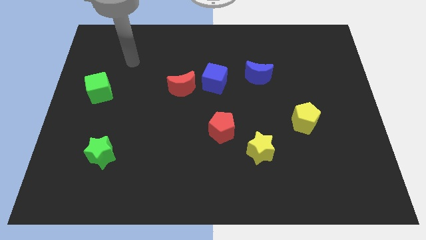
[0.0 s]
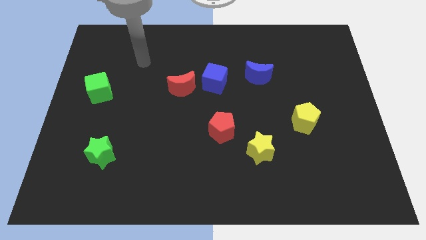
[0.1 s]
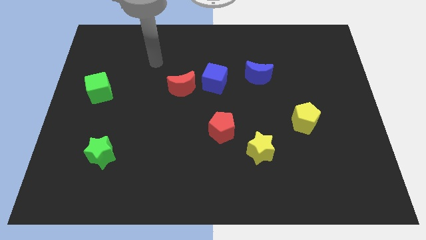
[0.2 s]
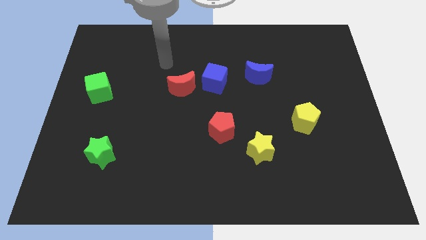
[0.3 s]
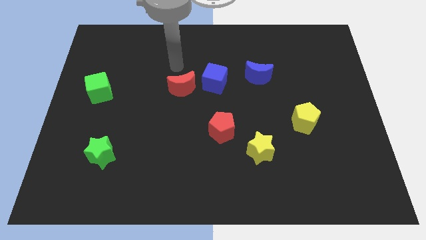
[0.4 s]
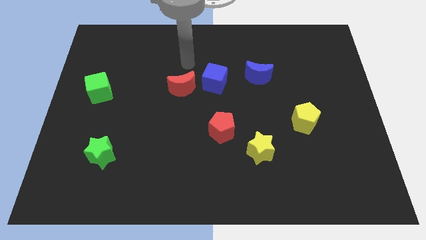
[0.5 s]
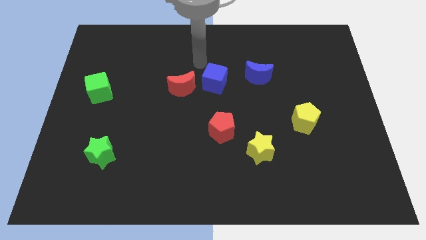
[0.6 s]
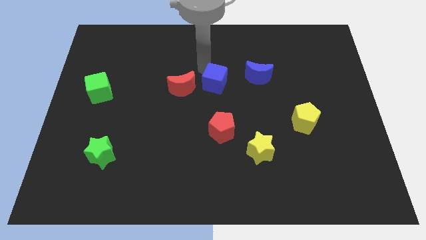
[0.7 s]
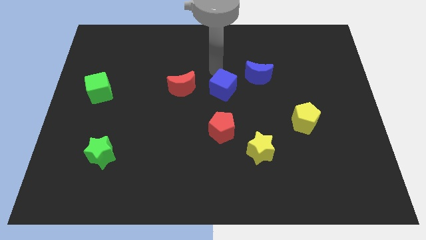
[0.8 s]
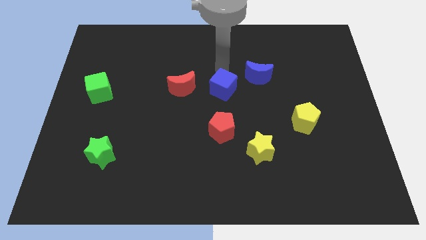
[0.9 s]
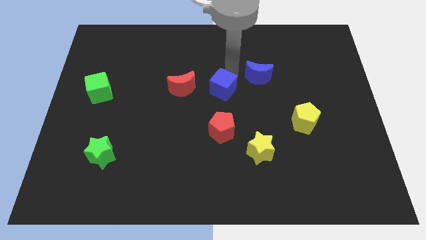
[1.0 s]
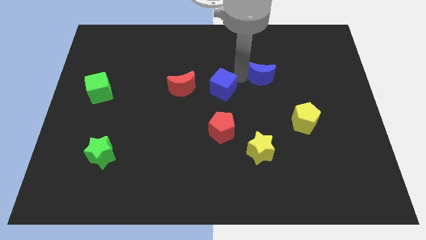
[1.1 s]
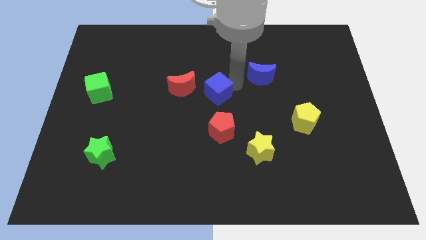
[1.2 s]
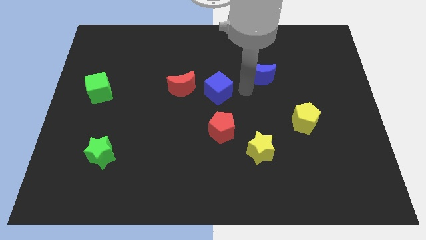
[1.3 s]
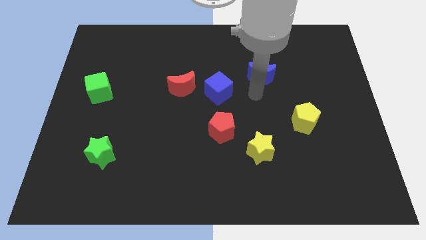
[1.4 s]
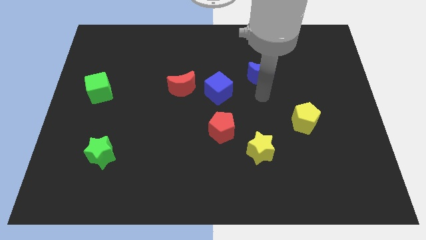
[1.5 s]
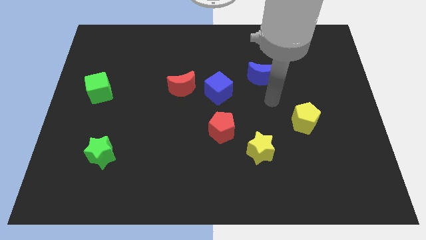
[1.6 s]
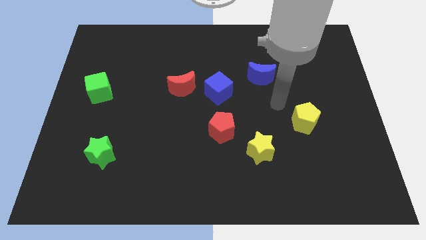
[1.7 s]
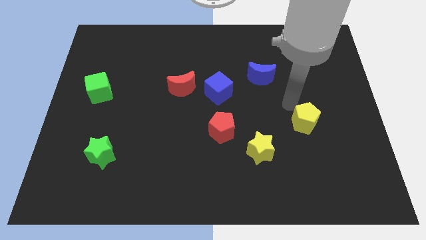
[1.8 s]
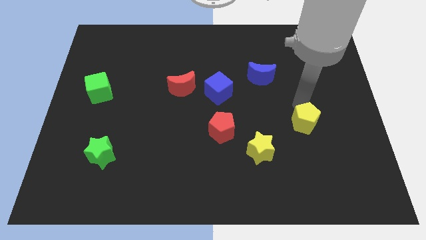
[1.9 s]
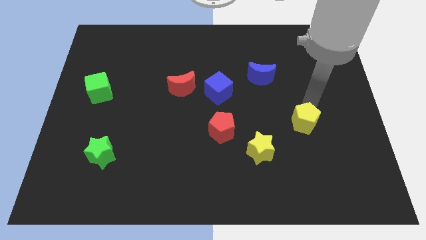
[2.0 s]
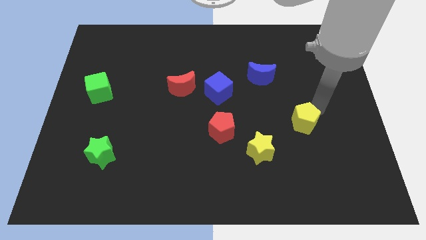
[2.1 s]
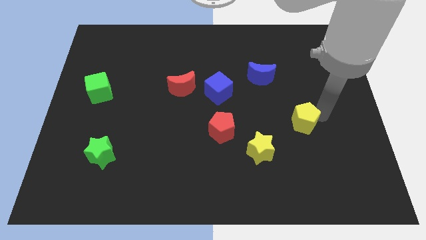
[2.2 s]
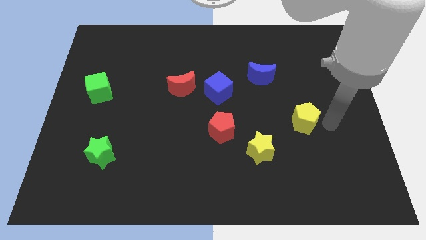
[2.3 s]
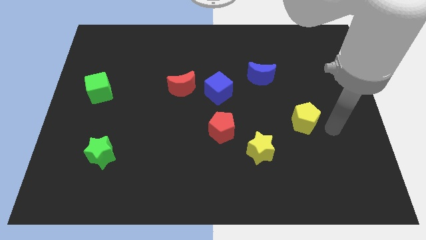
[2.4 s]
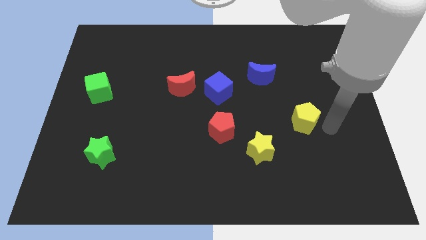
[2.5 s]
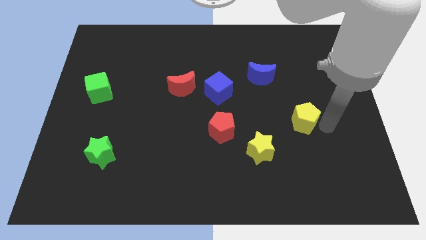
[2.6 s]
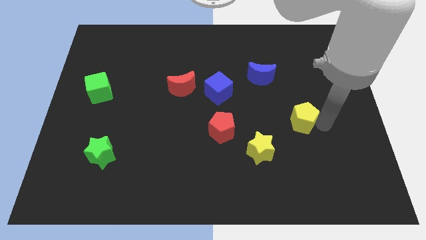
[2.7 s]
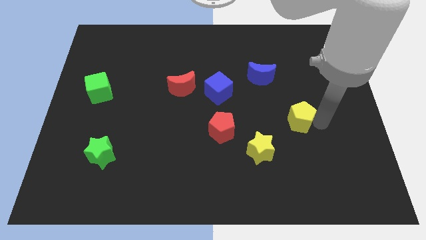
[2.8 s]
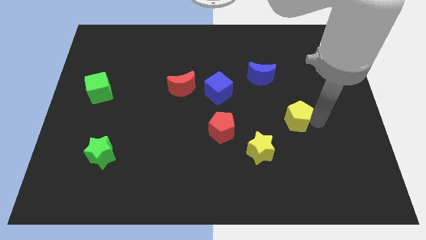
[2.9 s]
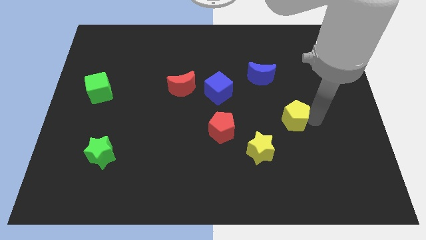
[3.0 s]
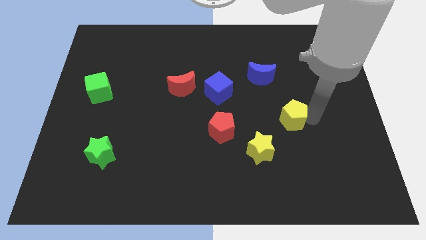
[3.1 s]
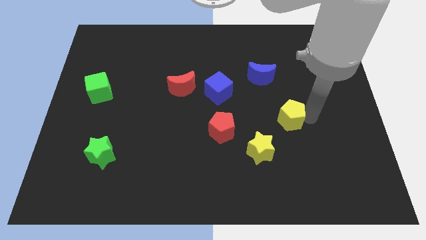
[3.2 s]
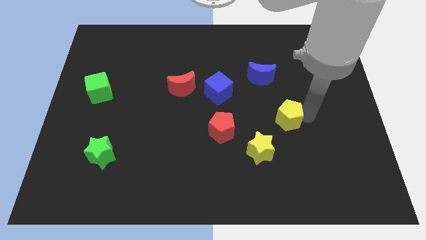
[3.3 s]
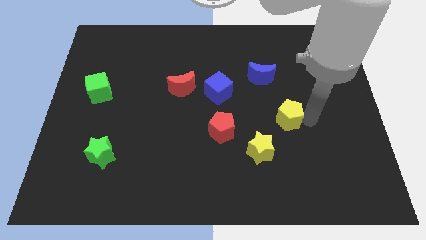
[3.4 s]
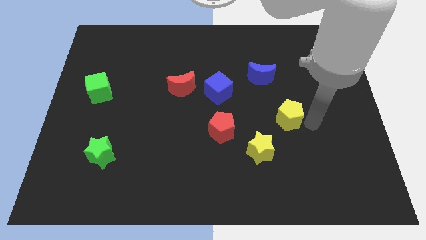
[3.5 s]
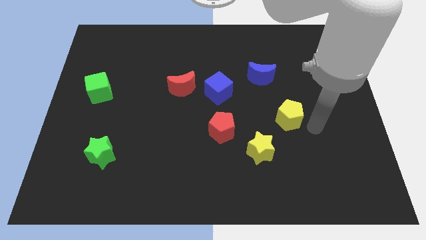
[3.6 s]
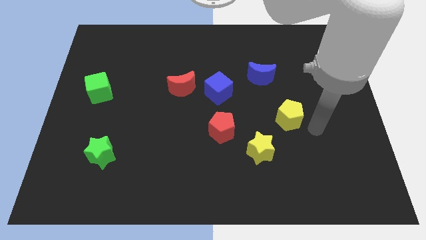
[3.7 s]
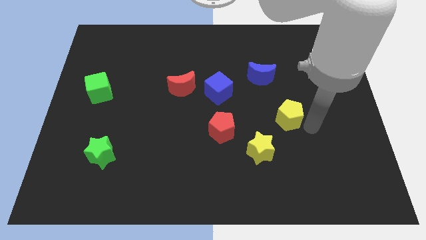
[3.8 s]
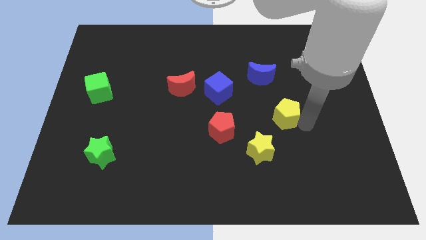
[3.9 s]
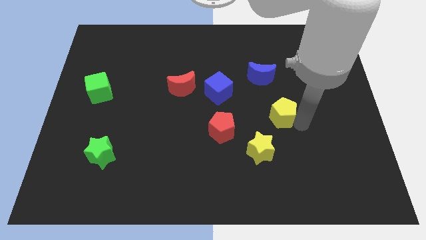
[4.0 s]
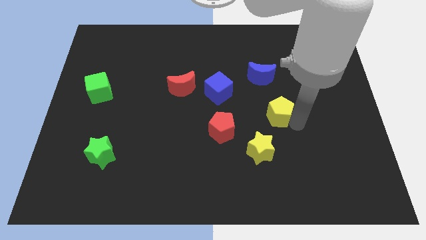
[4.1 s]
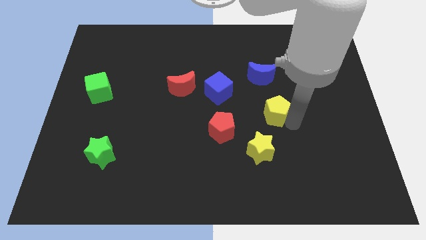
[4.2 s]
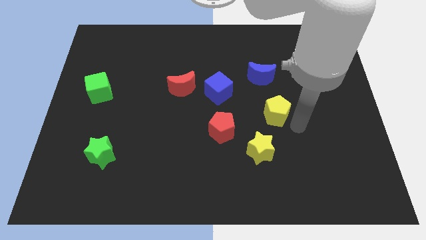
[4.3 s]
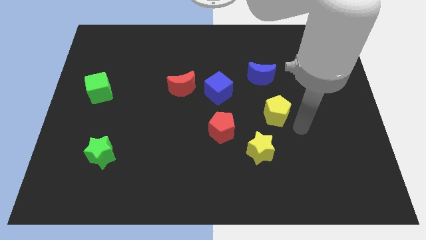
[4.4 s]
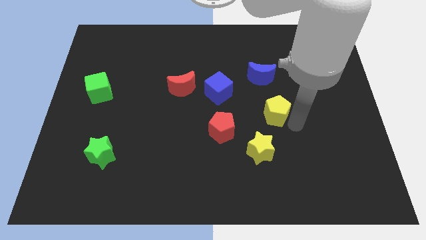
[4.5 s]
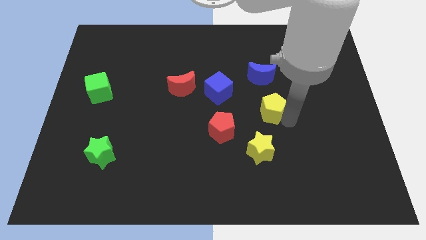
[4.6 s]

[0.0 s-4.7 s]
slightly move the yellow pentagon up and left

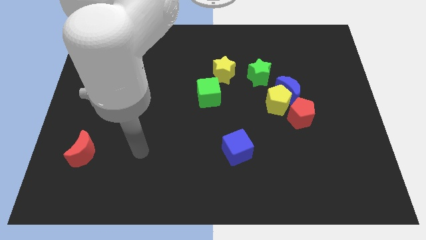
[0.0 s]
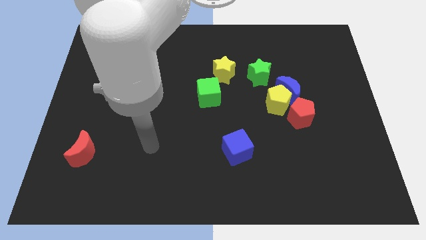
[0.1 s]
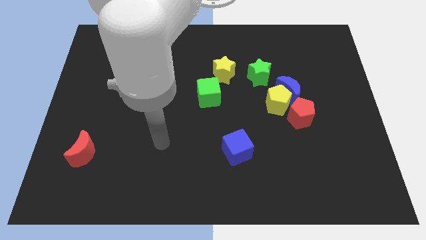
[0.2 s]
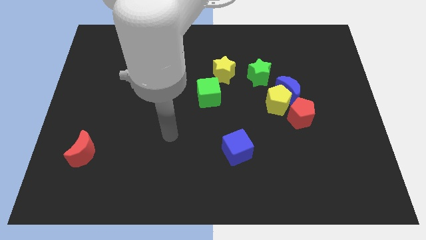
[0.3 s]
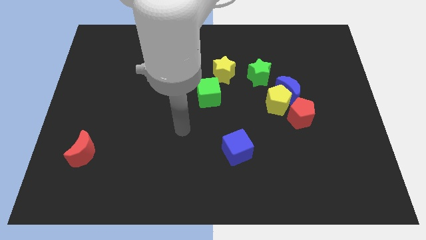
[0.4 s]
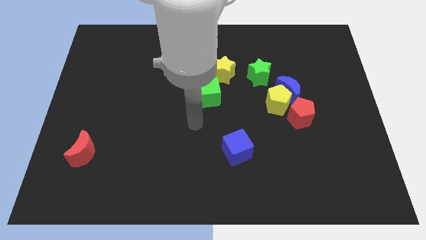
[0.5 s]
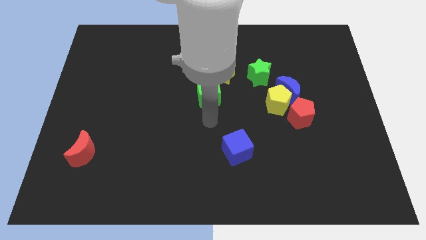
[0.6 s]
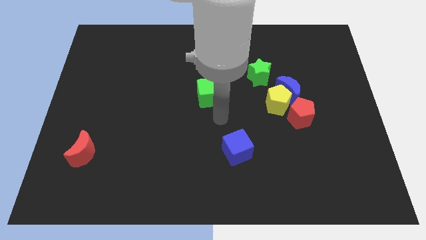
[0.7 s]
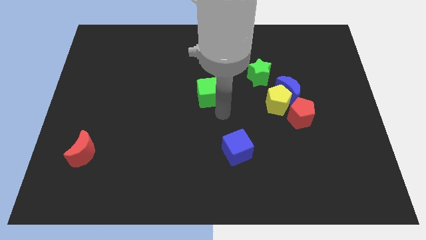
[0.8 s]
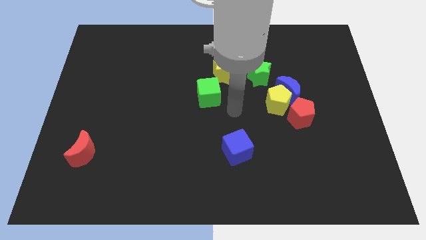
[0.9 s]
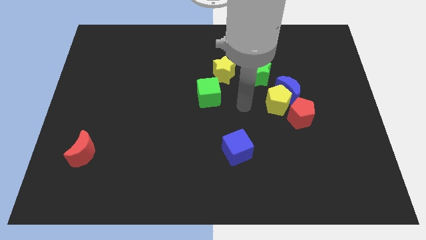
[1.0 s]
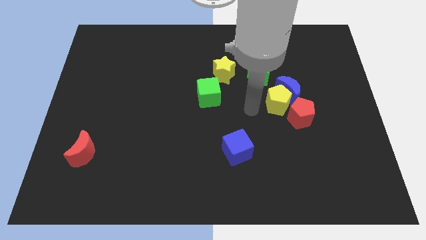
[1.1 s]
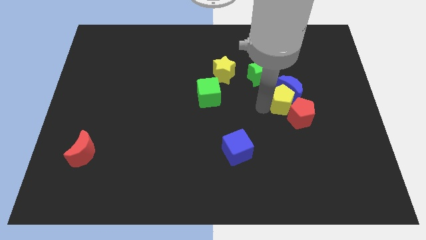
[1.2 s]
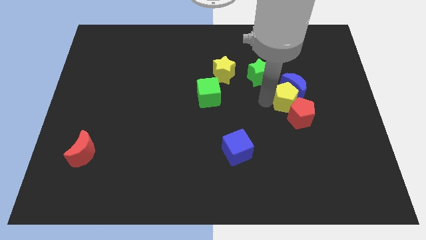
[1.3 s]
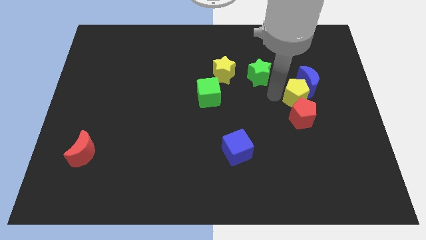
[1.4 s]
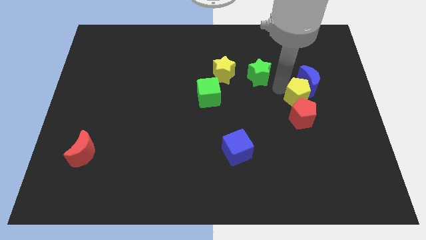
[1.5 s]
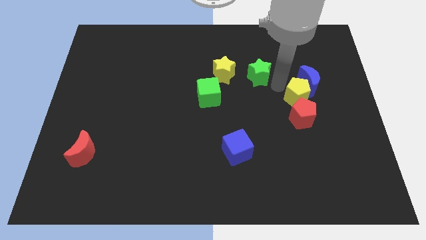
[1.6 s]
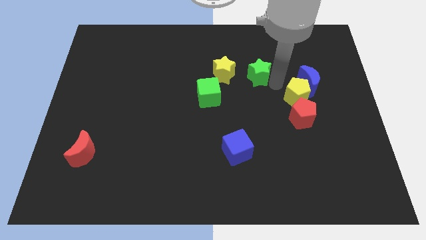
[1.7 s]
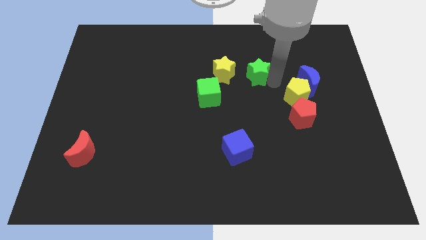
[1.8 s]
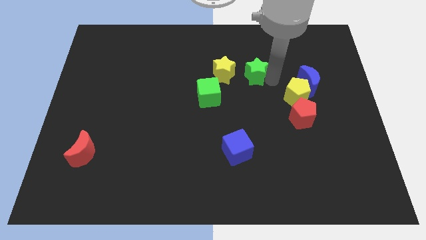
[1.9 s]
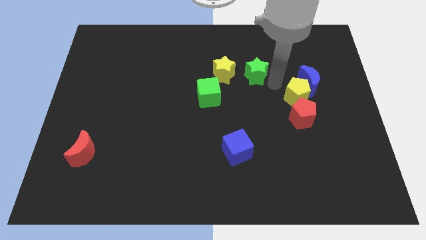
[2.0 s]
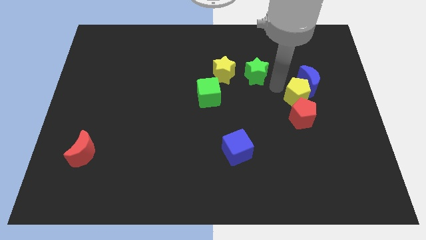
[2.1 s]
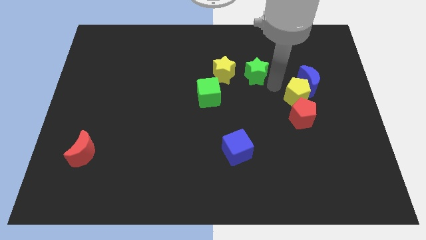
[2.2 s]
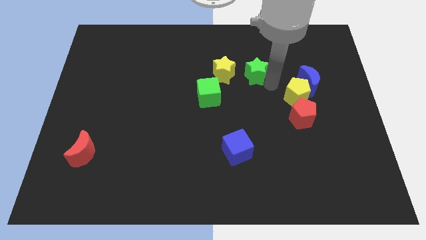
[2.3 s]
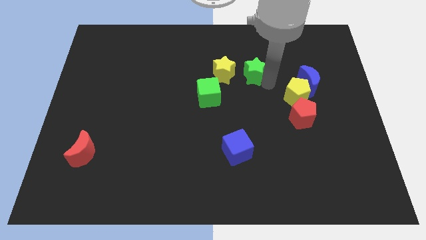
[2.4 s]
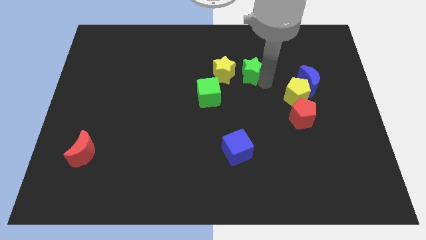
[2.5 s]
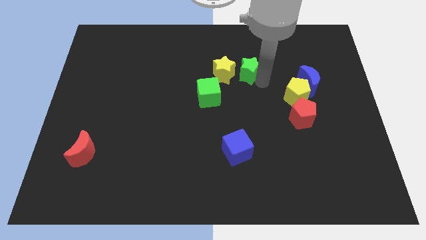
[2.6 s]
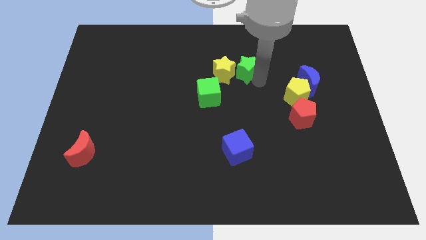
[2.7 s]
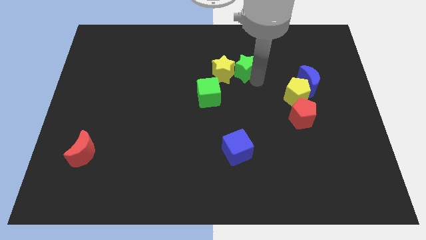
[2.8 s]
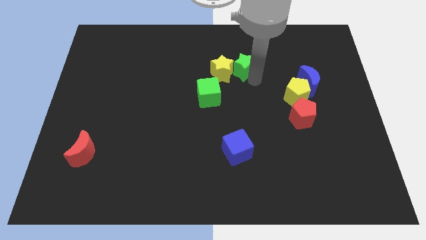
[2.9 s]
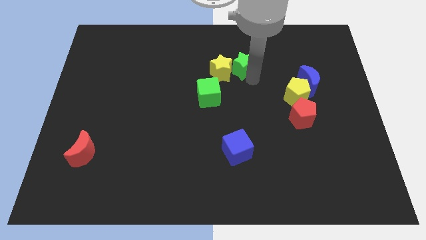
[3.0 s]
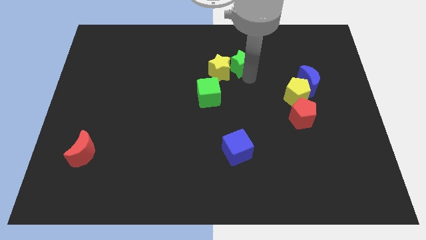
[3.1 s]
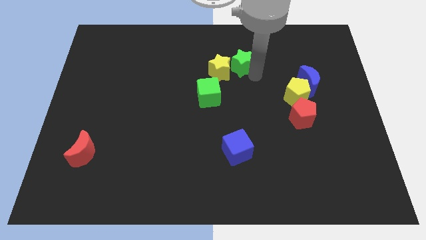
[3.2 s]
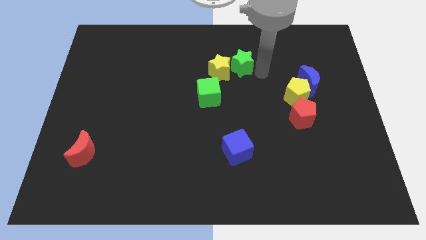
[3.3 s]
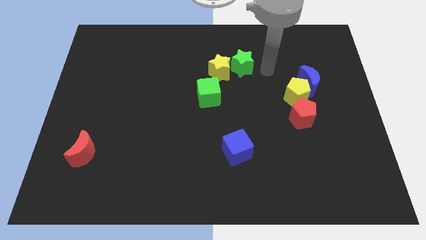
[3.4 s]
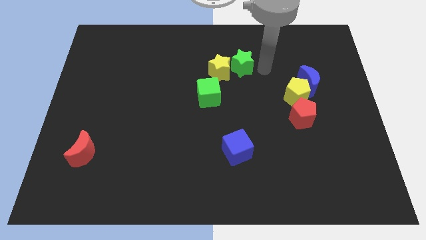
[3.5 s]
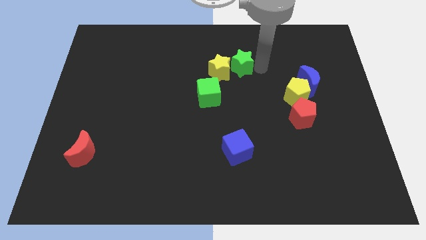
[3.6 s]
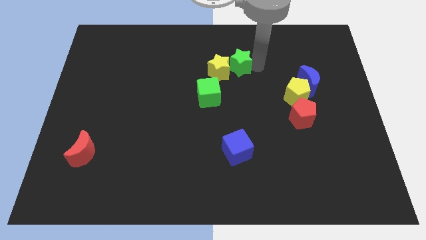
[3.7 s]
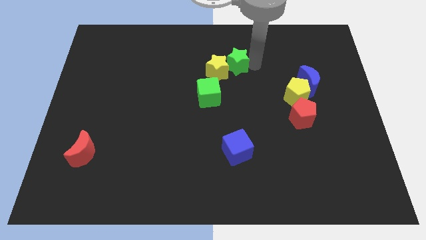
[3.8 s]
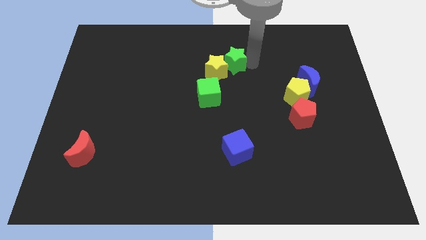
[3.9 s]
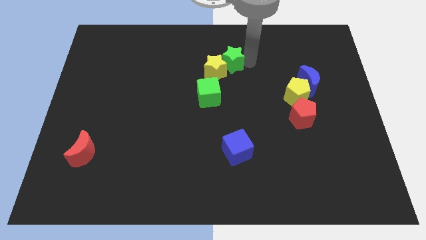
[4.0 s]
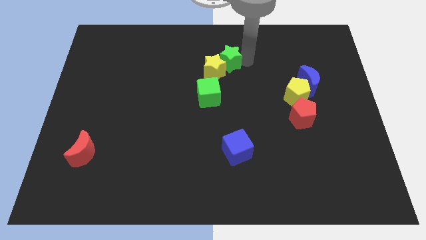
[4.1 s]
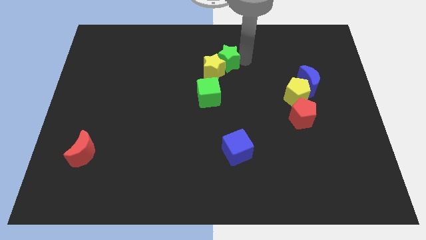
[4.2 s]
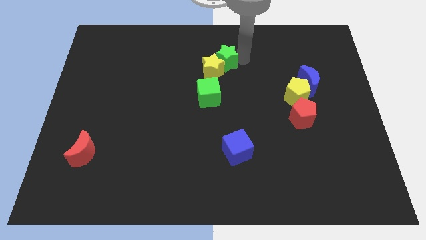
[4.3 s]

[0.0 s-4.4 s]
slide the green star left a little bit
